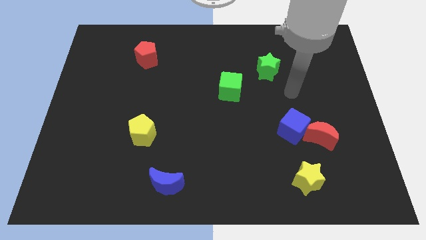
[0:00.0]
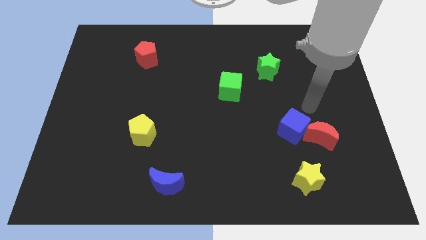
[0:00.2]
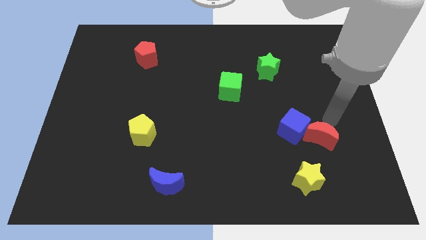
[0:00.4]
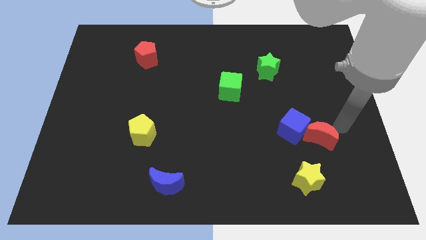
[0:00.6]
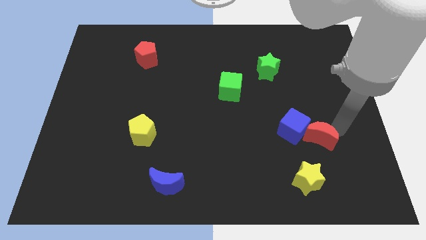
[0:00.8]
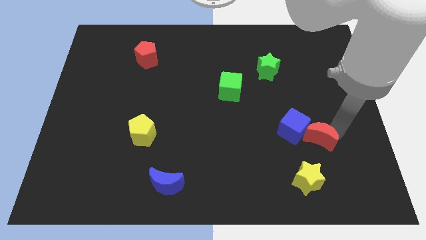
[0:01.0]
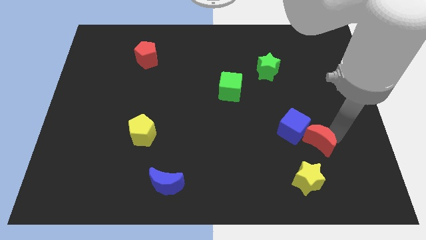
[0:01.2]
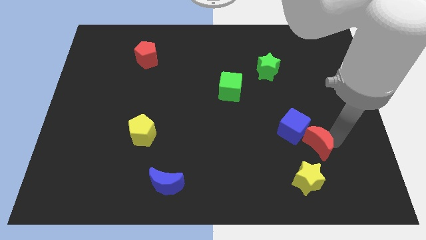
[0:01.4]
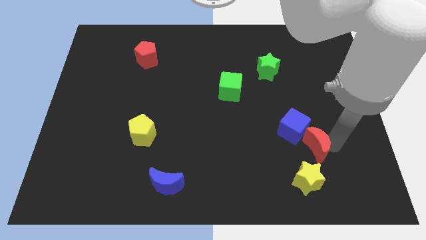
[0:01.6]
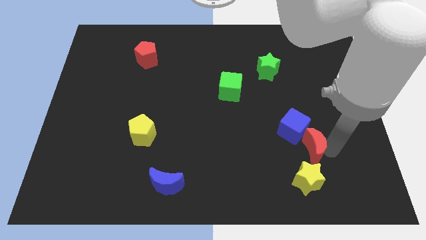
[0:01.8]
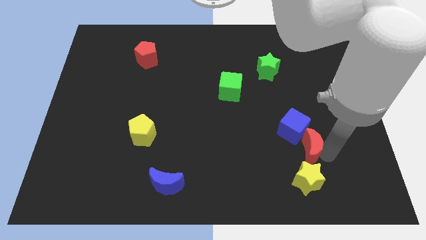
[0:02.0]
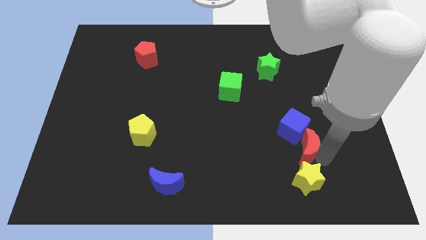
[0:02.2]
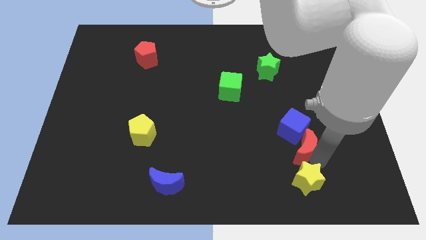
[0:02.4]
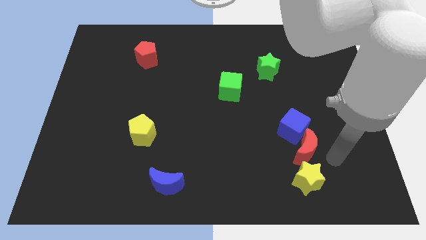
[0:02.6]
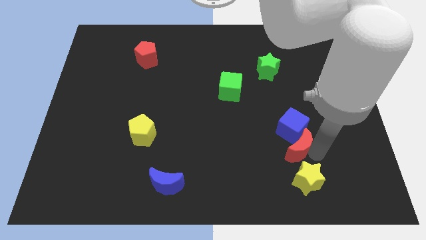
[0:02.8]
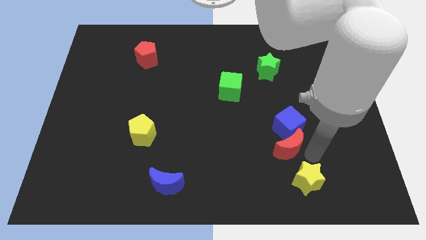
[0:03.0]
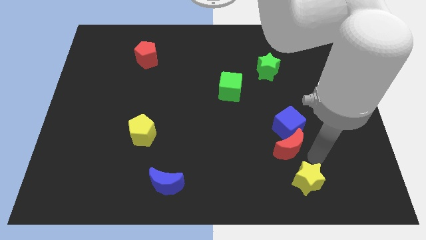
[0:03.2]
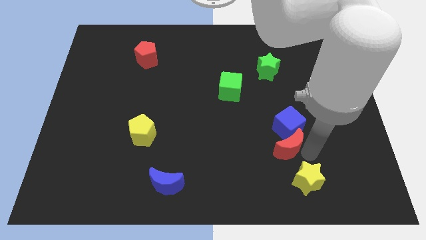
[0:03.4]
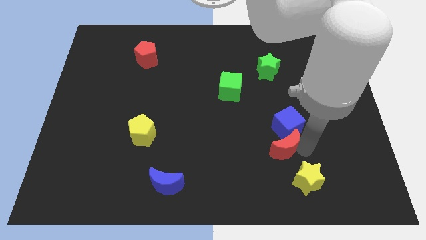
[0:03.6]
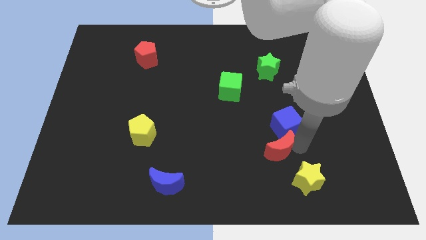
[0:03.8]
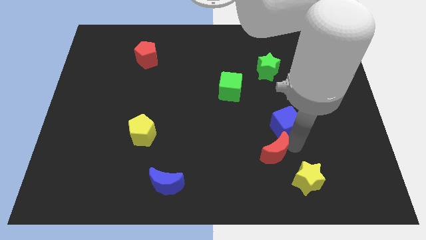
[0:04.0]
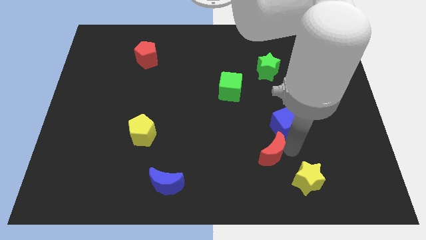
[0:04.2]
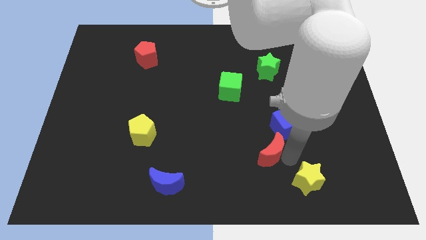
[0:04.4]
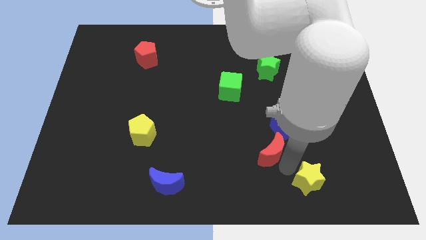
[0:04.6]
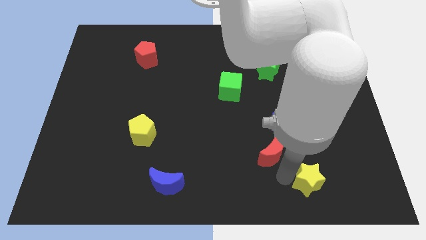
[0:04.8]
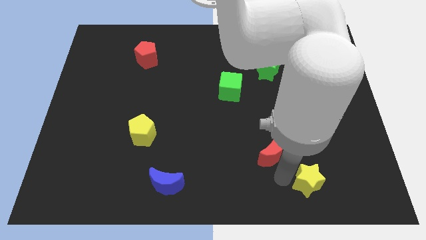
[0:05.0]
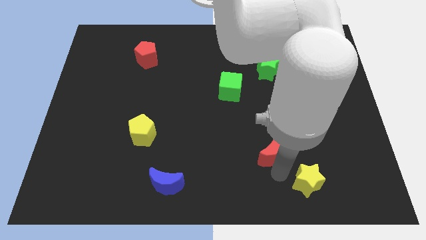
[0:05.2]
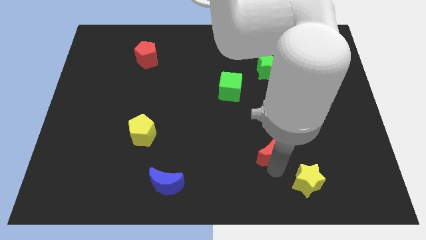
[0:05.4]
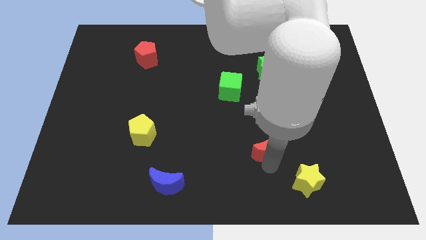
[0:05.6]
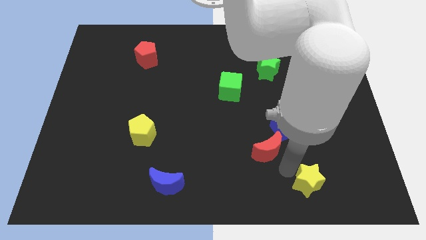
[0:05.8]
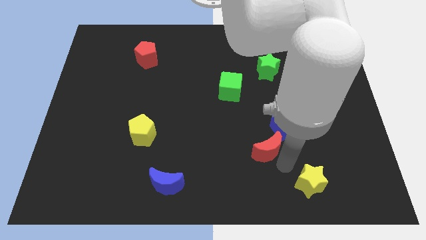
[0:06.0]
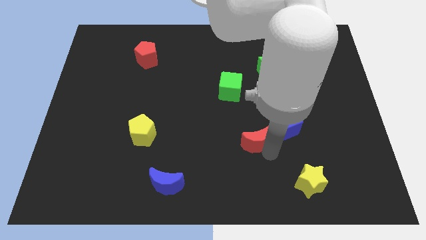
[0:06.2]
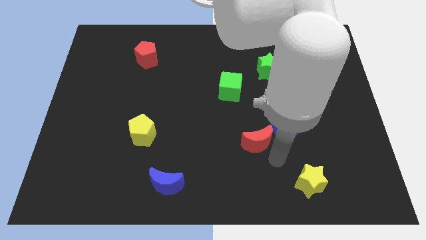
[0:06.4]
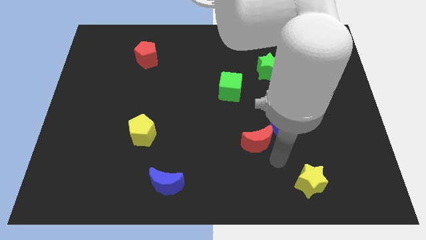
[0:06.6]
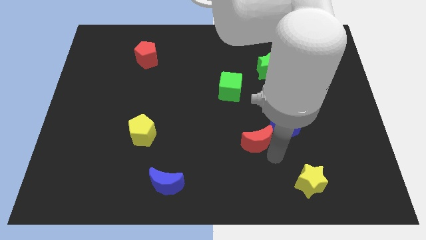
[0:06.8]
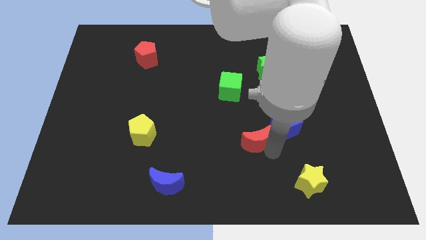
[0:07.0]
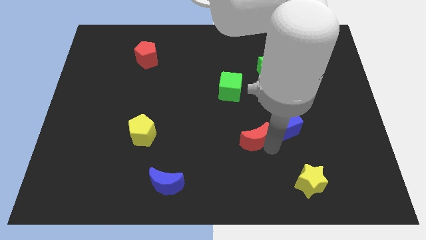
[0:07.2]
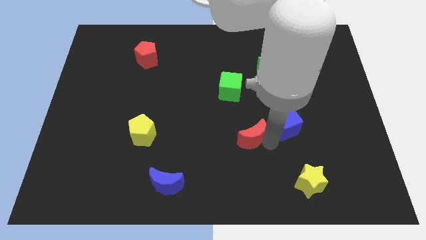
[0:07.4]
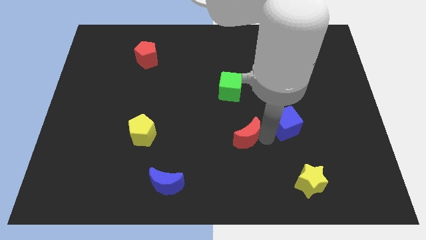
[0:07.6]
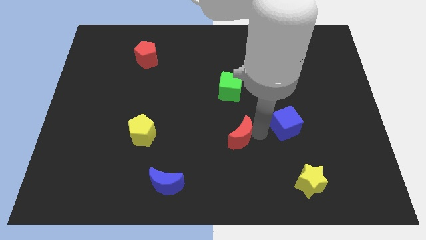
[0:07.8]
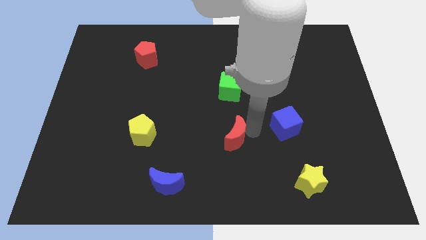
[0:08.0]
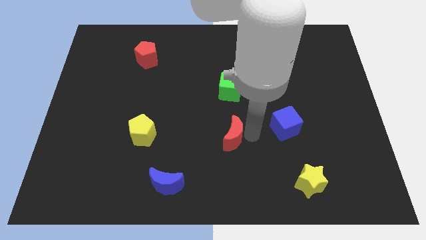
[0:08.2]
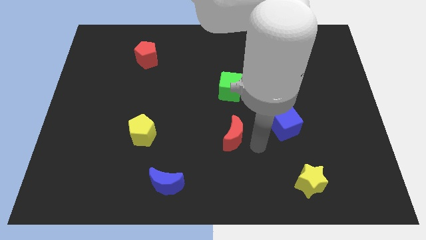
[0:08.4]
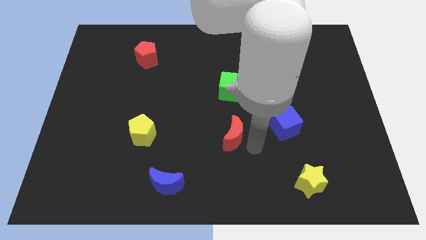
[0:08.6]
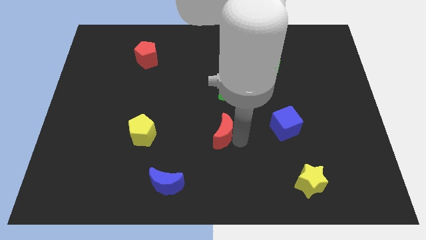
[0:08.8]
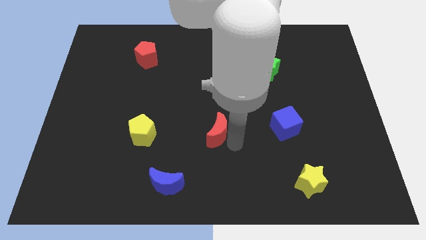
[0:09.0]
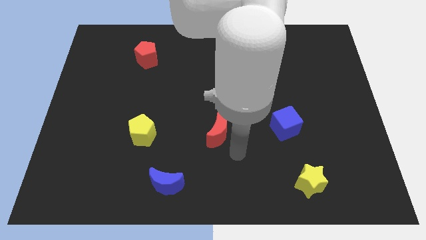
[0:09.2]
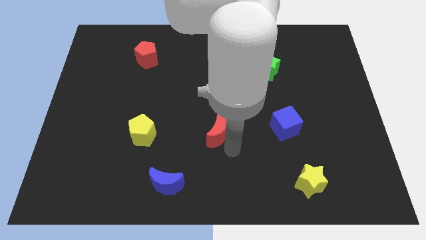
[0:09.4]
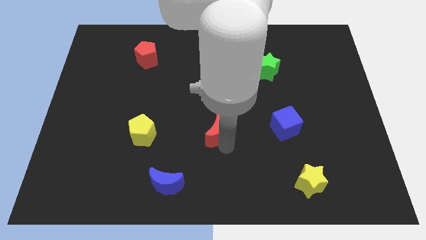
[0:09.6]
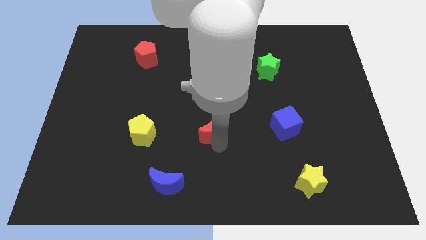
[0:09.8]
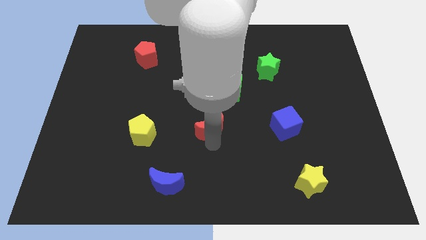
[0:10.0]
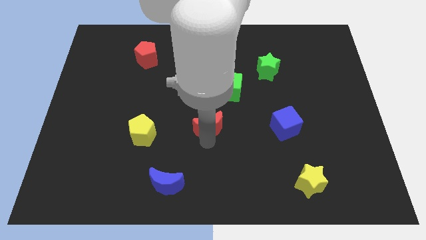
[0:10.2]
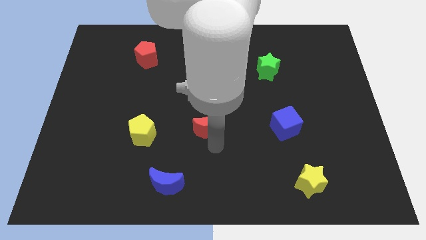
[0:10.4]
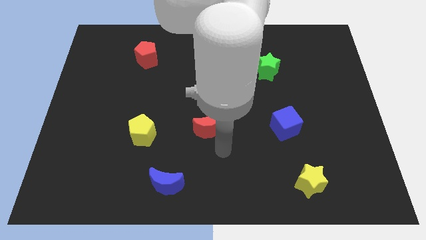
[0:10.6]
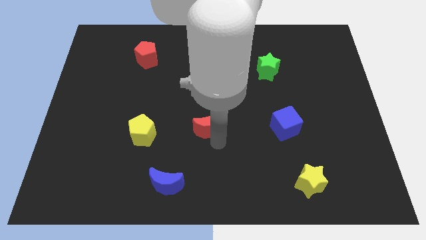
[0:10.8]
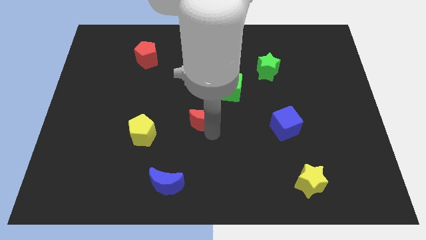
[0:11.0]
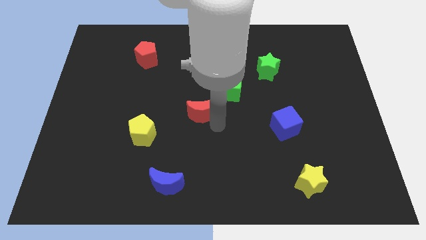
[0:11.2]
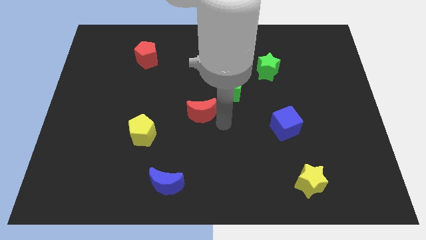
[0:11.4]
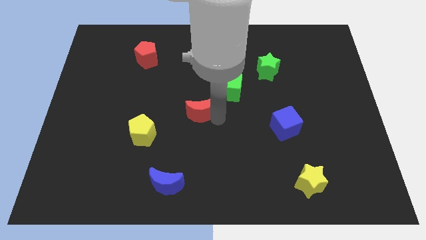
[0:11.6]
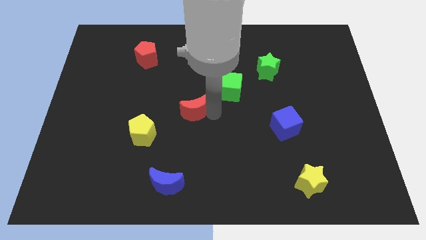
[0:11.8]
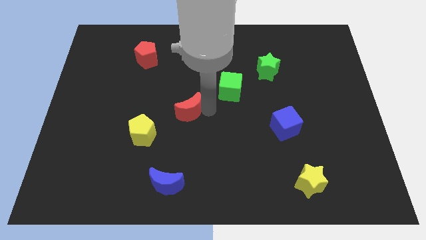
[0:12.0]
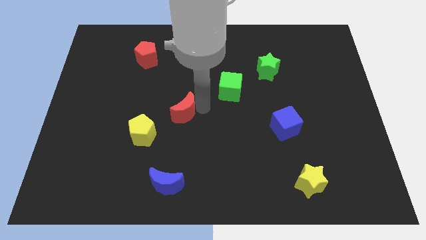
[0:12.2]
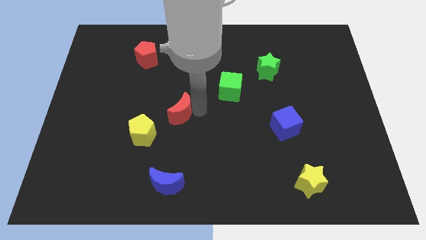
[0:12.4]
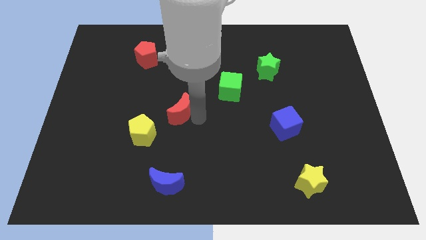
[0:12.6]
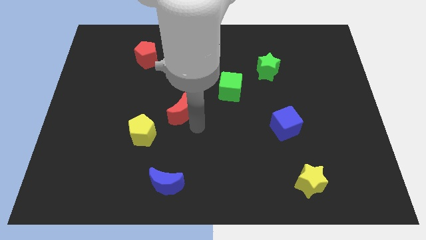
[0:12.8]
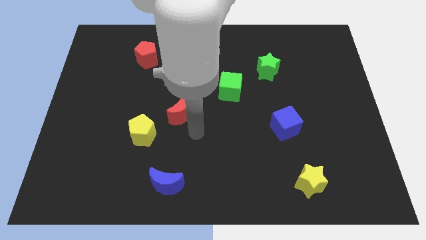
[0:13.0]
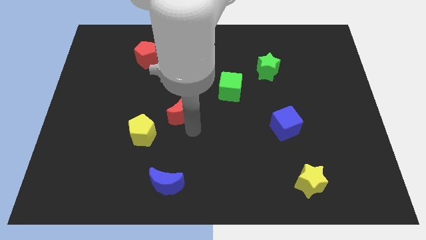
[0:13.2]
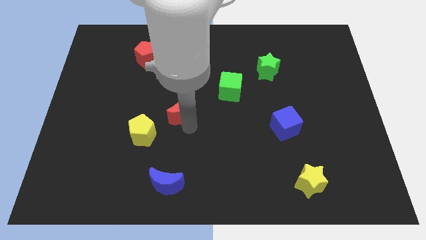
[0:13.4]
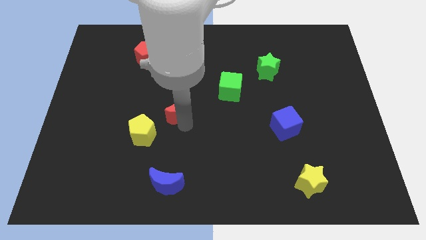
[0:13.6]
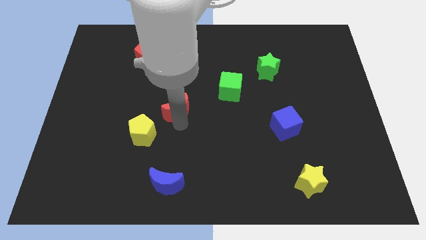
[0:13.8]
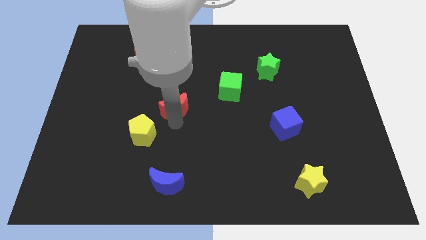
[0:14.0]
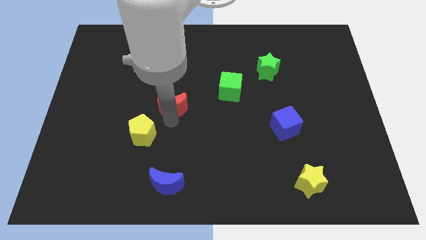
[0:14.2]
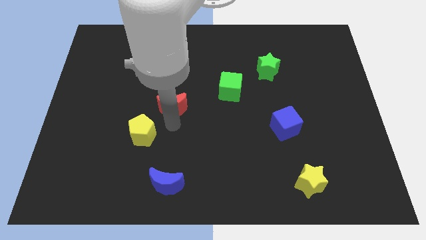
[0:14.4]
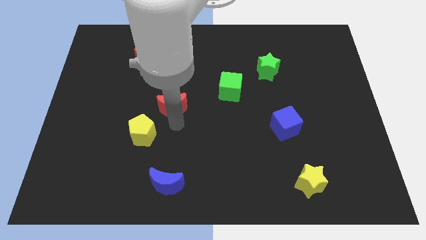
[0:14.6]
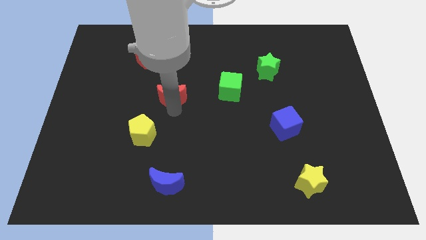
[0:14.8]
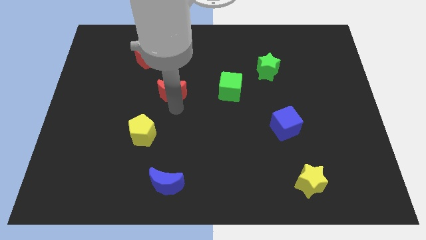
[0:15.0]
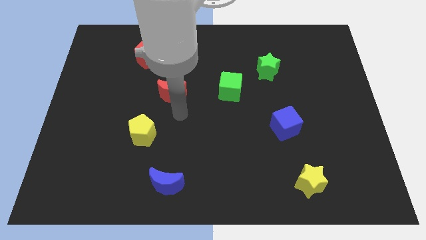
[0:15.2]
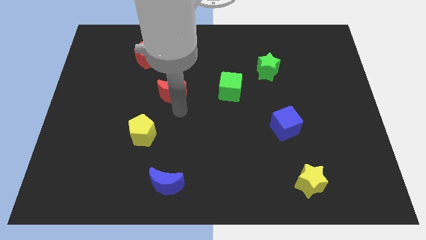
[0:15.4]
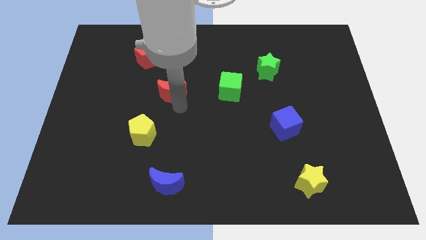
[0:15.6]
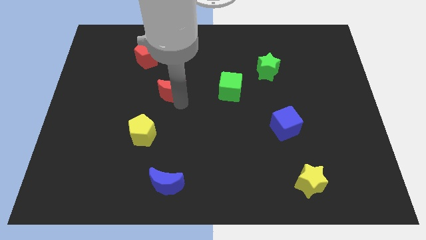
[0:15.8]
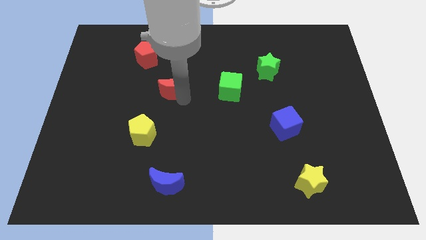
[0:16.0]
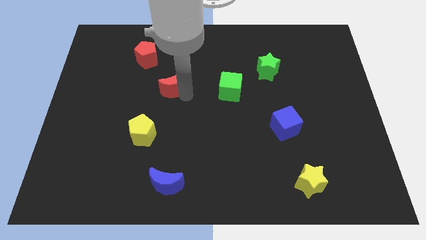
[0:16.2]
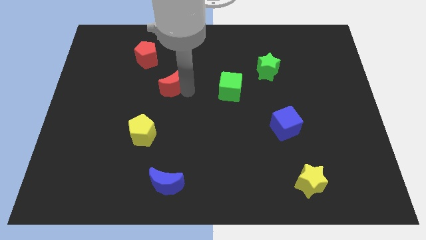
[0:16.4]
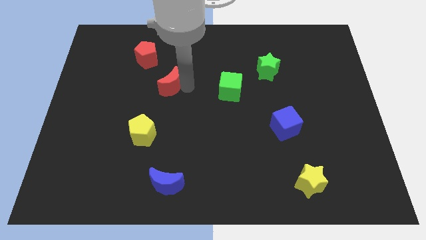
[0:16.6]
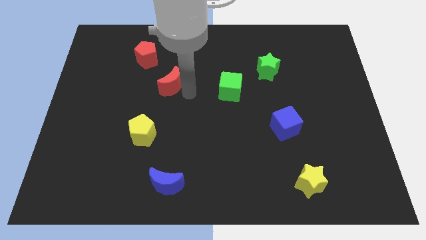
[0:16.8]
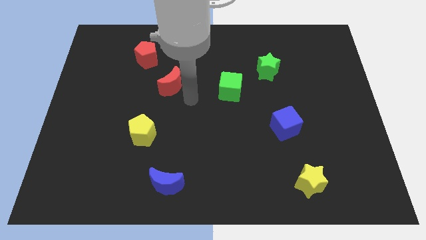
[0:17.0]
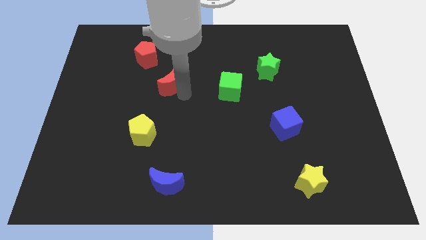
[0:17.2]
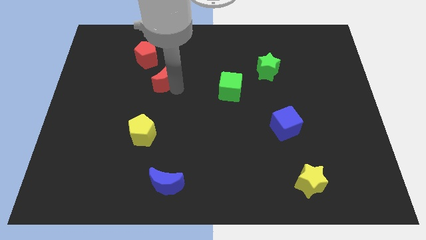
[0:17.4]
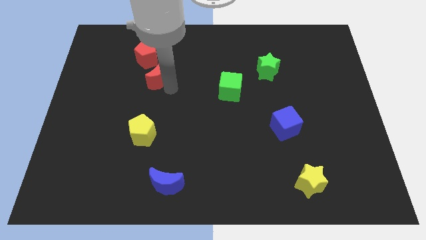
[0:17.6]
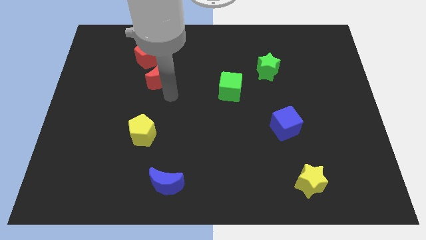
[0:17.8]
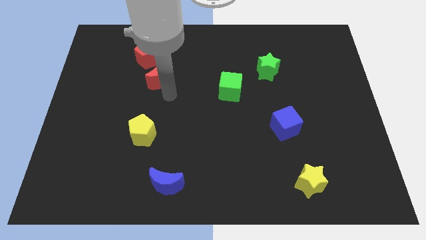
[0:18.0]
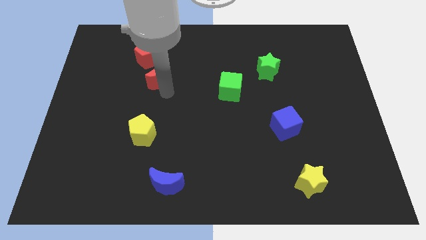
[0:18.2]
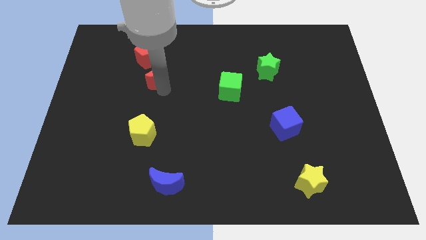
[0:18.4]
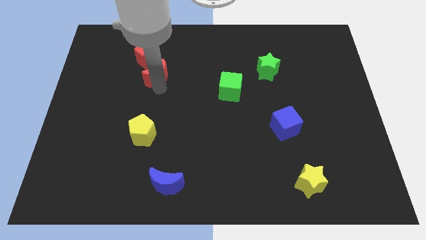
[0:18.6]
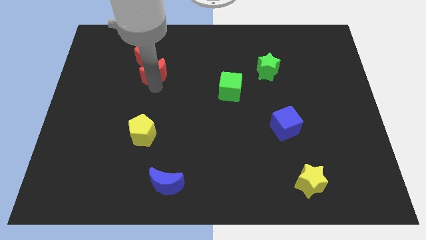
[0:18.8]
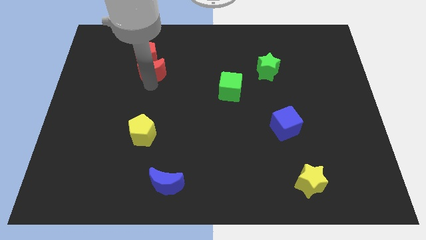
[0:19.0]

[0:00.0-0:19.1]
slide the red moon towards the red pentagon
